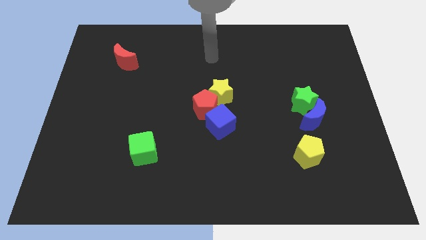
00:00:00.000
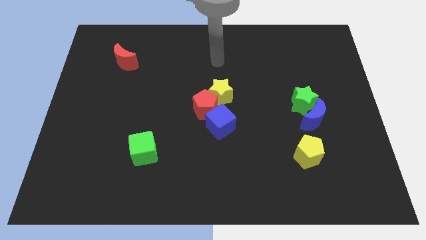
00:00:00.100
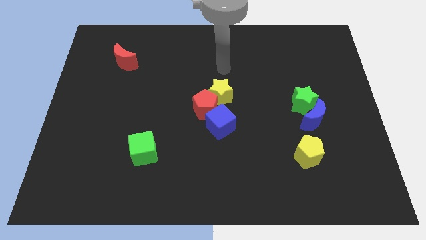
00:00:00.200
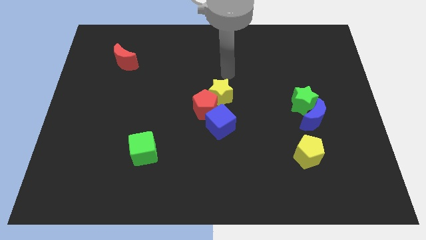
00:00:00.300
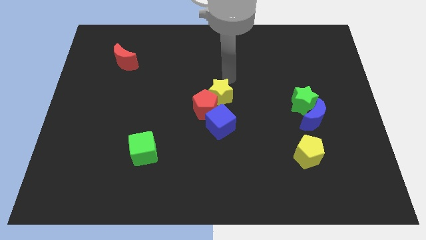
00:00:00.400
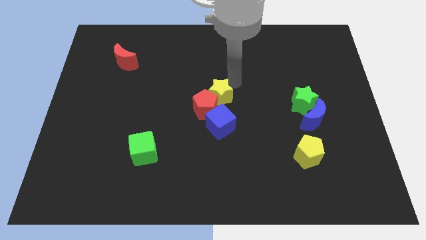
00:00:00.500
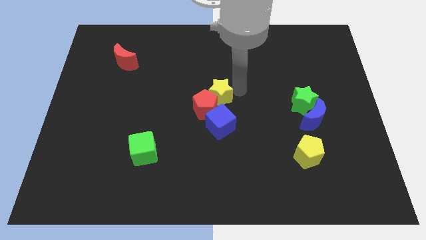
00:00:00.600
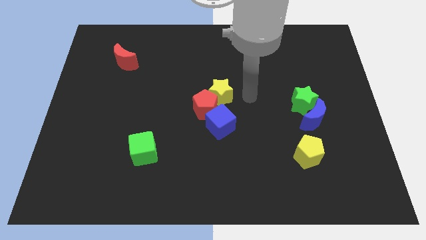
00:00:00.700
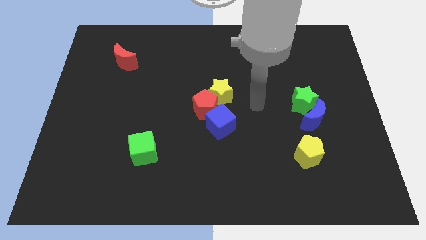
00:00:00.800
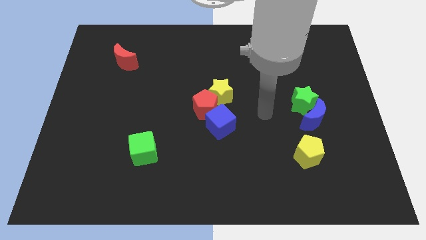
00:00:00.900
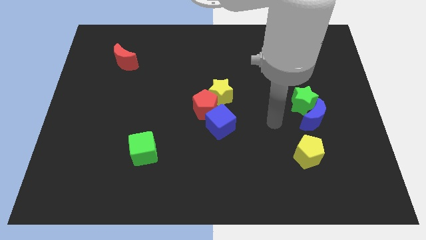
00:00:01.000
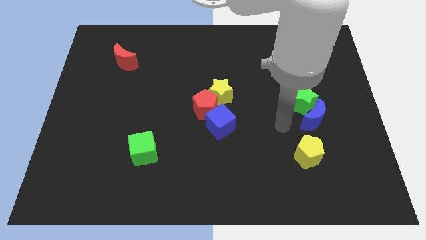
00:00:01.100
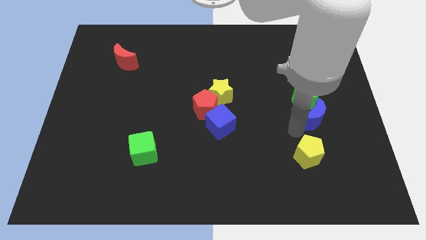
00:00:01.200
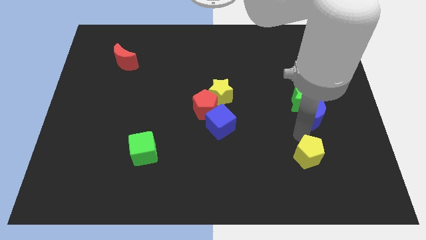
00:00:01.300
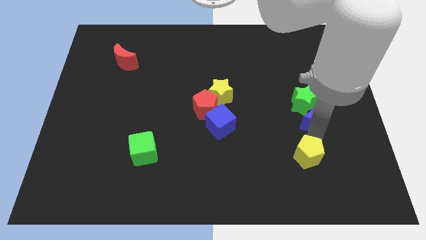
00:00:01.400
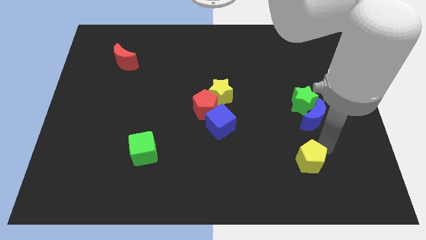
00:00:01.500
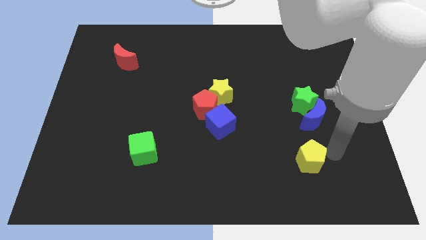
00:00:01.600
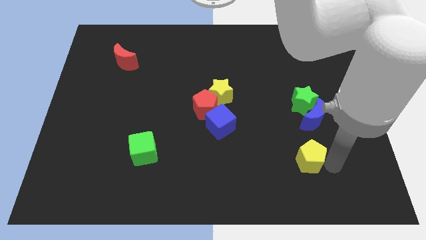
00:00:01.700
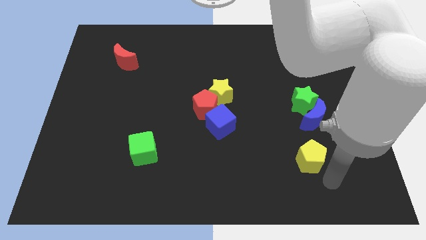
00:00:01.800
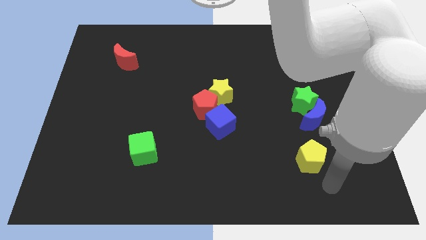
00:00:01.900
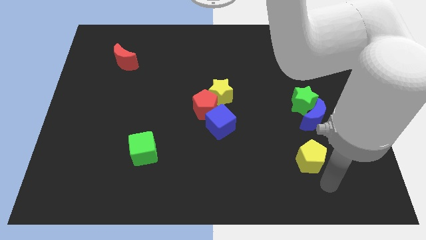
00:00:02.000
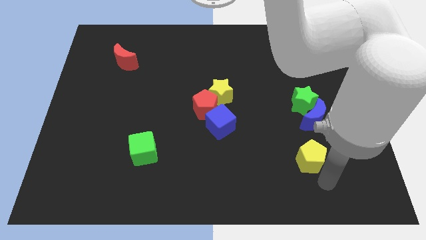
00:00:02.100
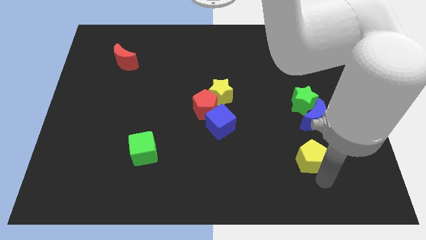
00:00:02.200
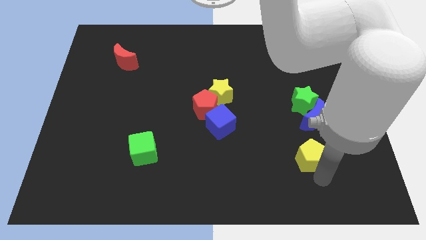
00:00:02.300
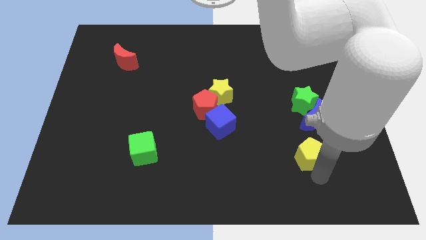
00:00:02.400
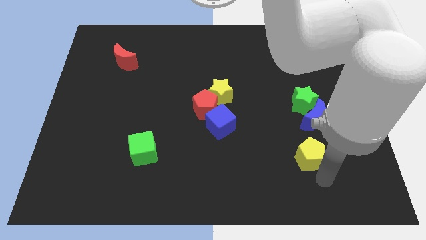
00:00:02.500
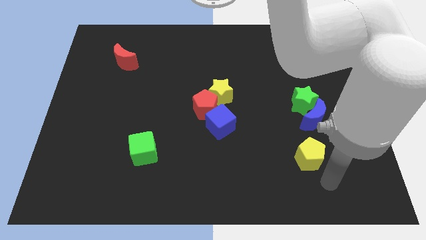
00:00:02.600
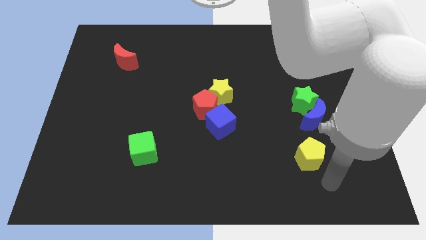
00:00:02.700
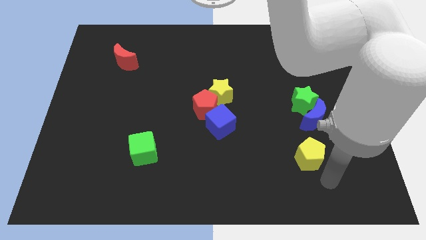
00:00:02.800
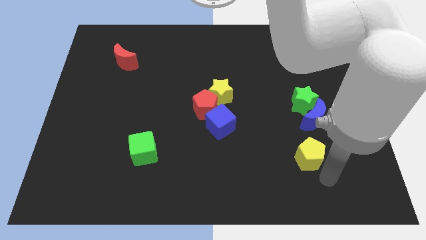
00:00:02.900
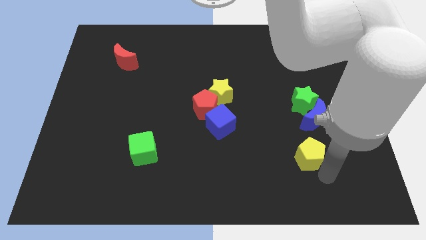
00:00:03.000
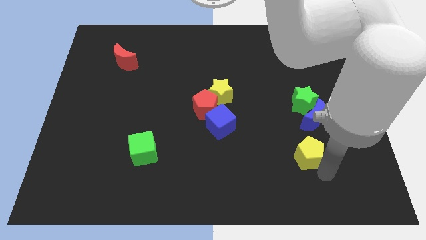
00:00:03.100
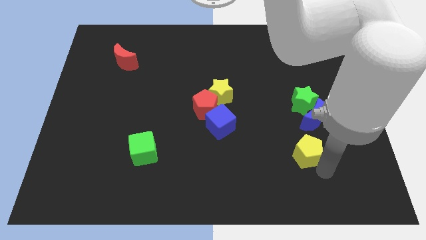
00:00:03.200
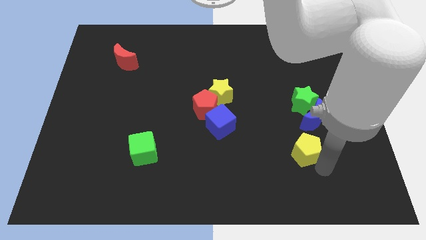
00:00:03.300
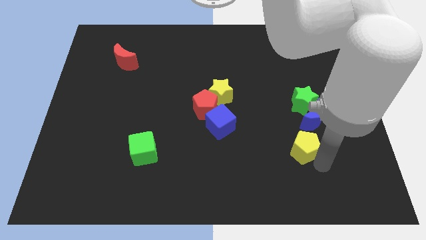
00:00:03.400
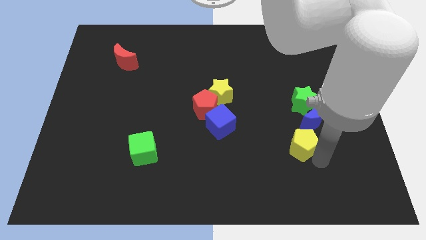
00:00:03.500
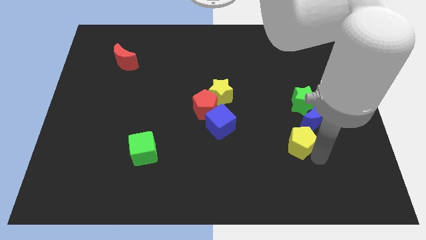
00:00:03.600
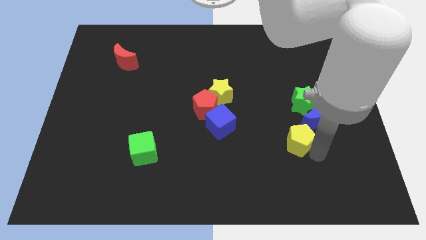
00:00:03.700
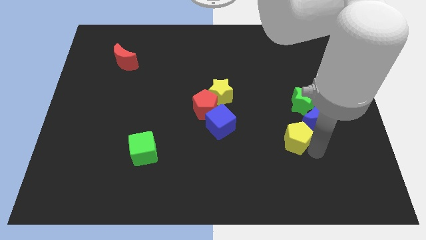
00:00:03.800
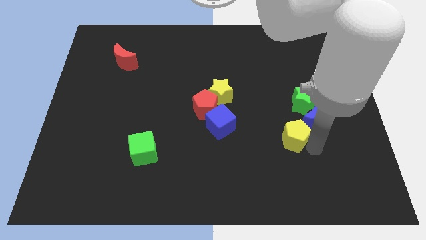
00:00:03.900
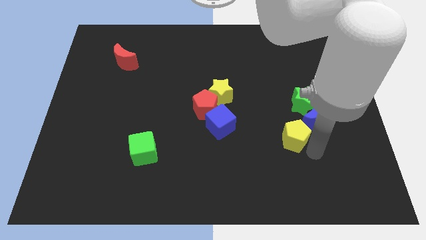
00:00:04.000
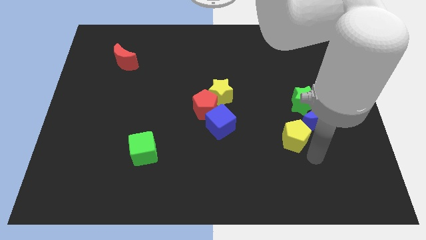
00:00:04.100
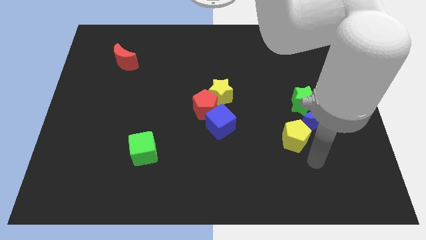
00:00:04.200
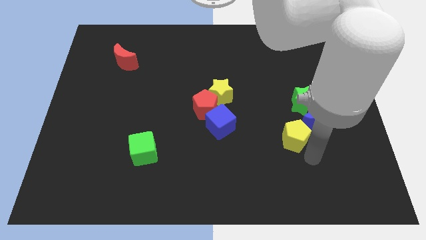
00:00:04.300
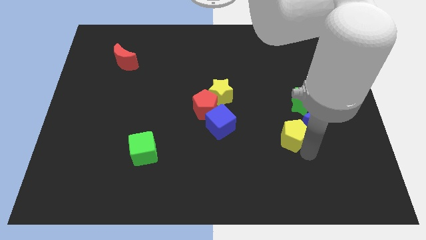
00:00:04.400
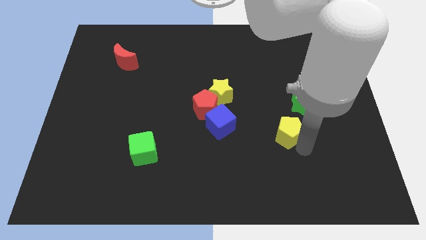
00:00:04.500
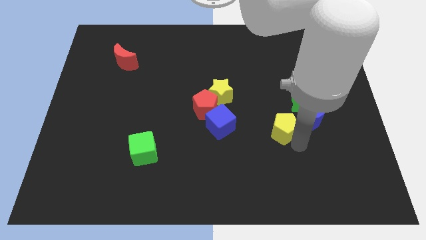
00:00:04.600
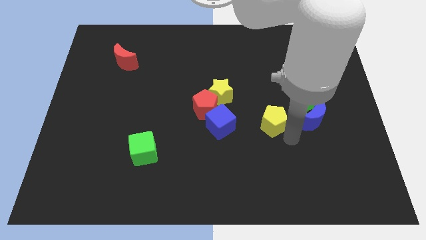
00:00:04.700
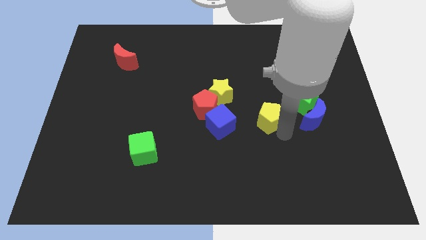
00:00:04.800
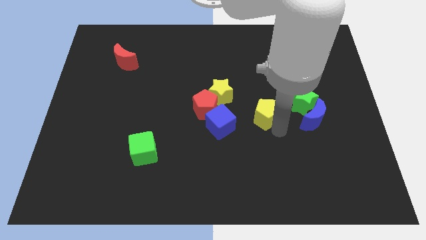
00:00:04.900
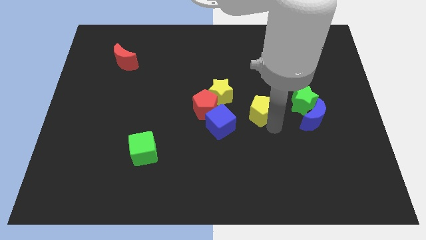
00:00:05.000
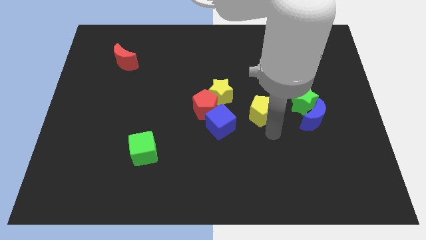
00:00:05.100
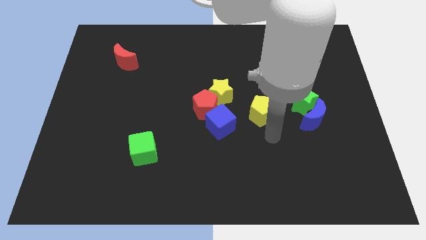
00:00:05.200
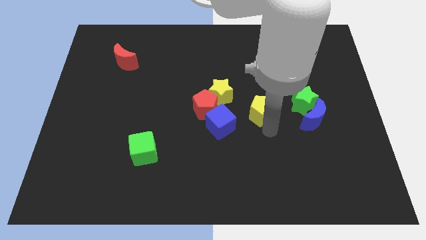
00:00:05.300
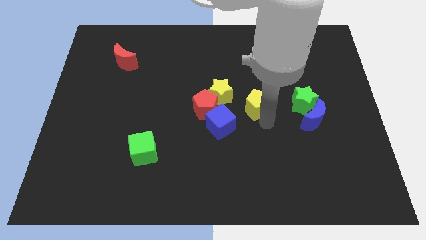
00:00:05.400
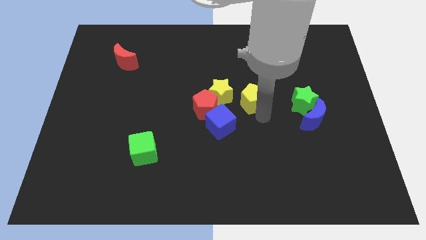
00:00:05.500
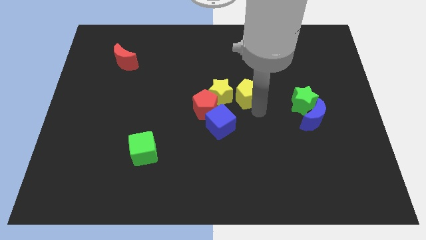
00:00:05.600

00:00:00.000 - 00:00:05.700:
slide the yellow pentagon to the top right of the red pentagon

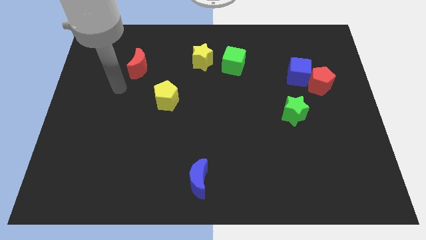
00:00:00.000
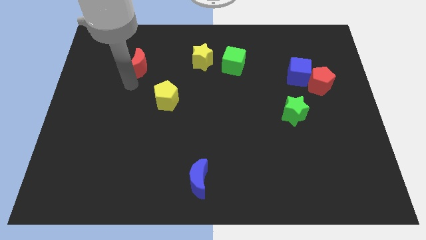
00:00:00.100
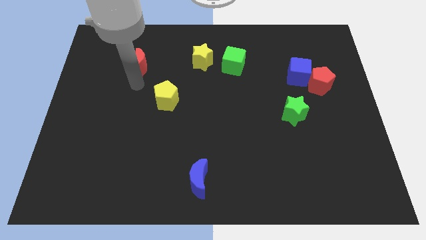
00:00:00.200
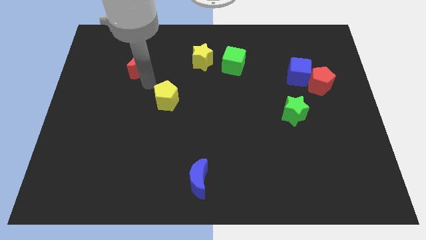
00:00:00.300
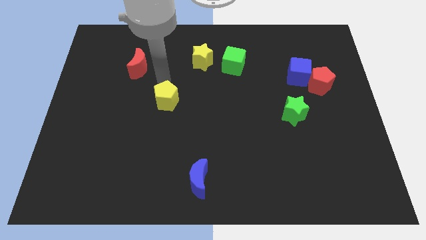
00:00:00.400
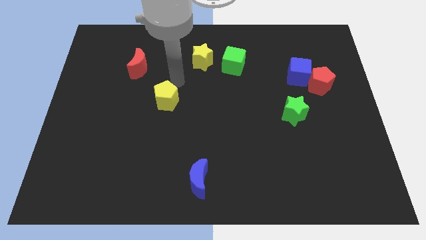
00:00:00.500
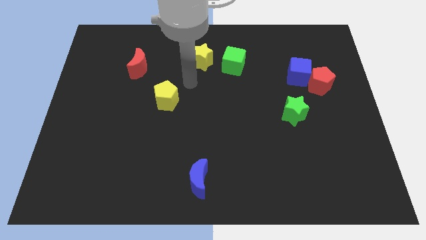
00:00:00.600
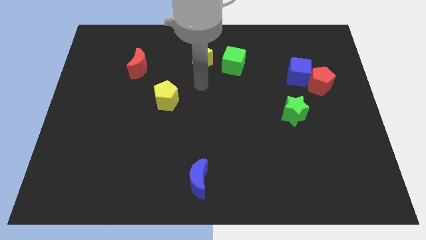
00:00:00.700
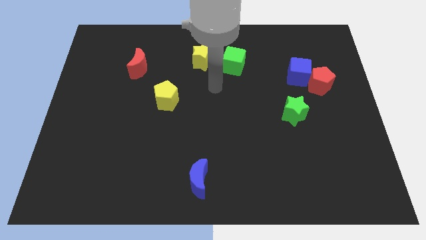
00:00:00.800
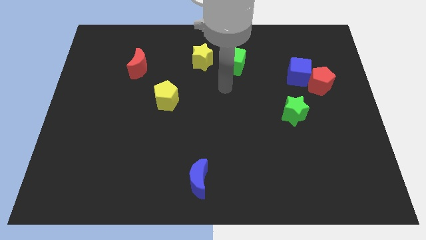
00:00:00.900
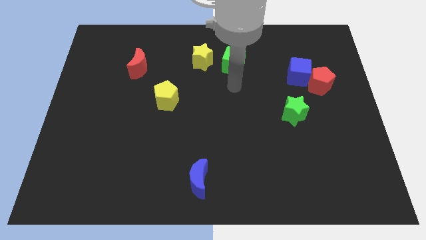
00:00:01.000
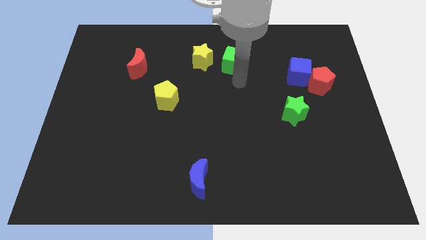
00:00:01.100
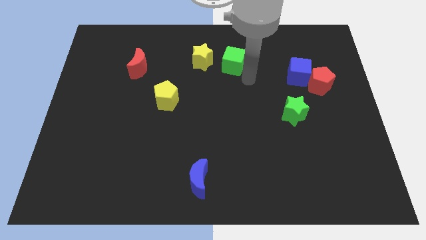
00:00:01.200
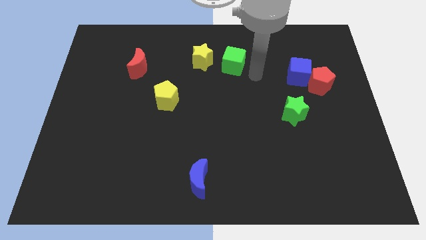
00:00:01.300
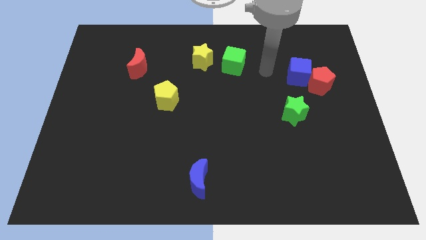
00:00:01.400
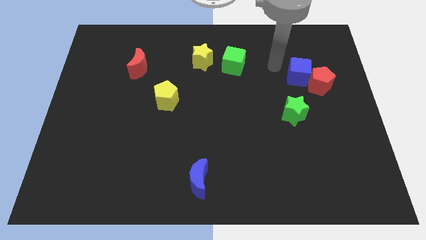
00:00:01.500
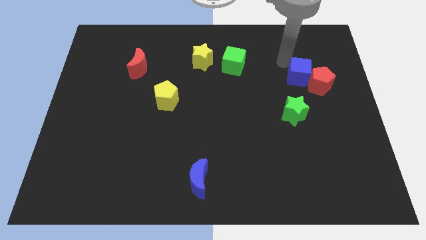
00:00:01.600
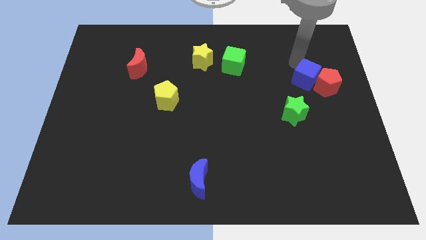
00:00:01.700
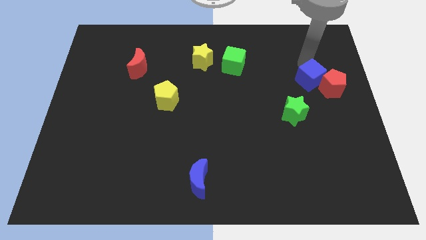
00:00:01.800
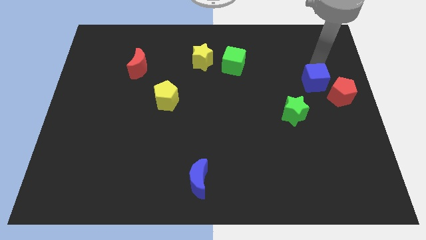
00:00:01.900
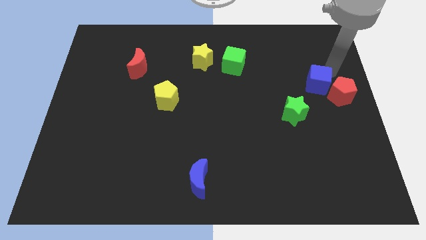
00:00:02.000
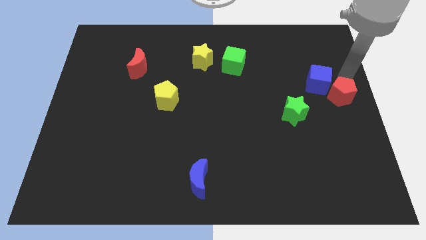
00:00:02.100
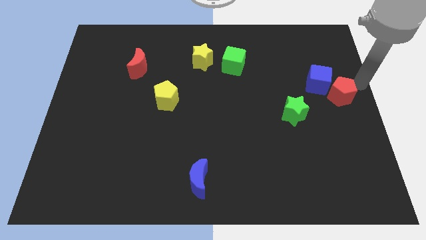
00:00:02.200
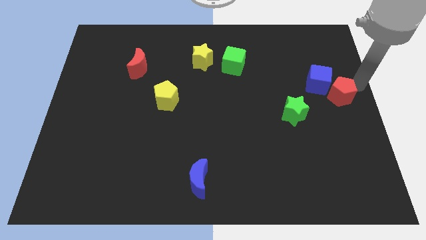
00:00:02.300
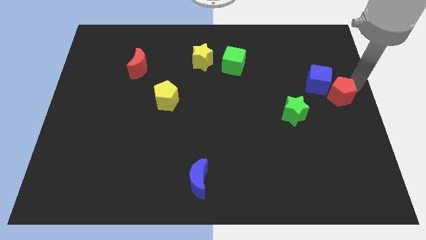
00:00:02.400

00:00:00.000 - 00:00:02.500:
push the red pentagon to the bottom side of the blue cube
